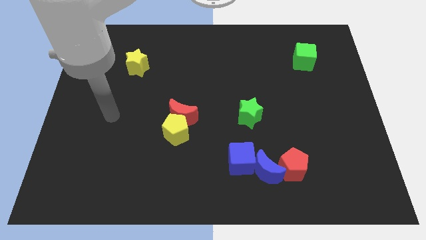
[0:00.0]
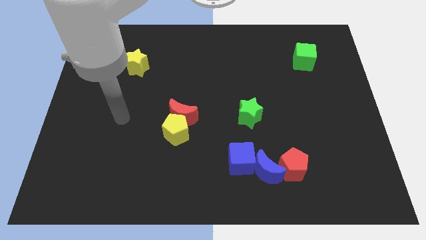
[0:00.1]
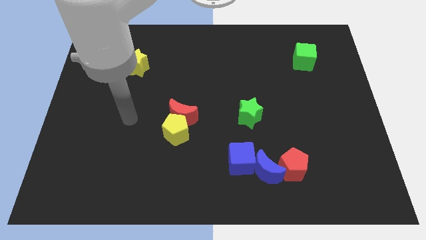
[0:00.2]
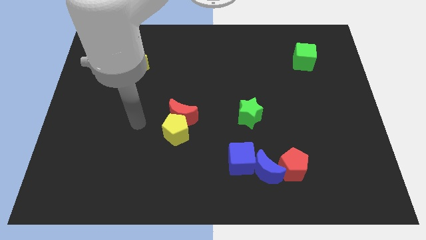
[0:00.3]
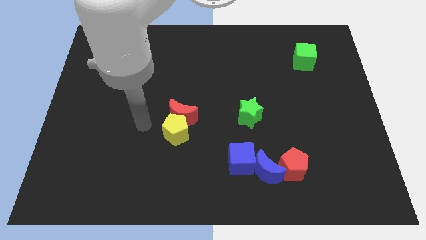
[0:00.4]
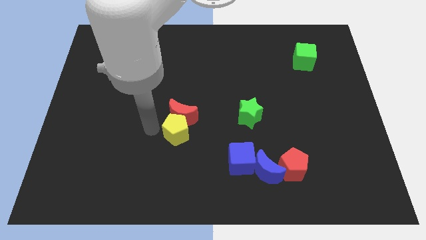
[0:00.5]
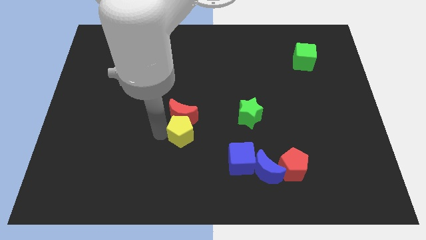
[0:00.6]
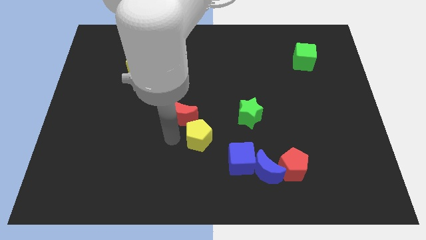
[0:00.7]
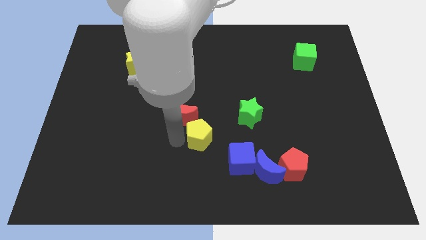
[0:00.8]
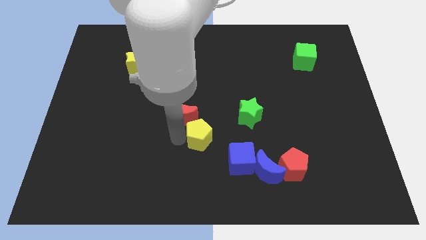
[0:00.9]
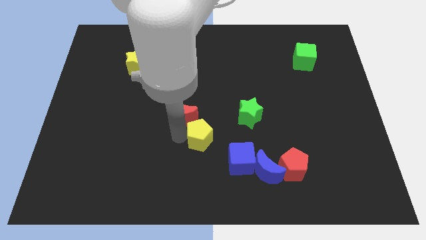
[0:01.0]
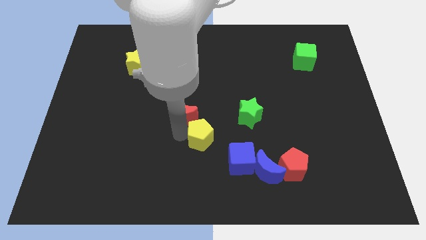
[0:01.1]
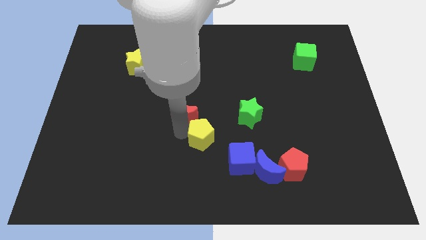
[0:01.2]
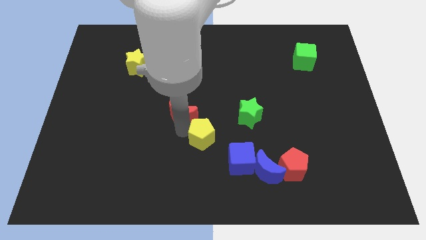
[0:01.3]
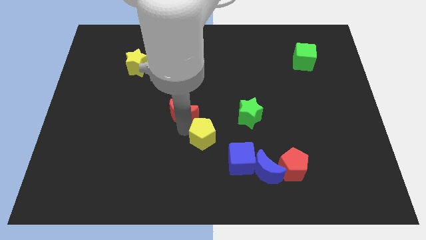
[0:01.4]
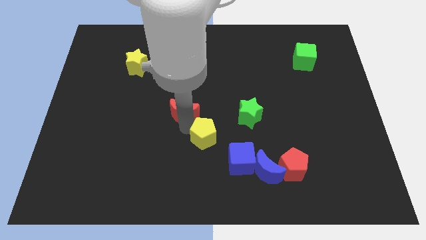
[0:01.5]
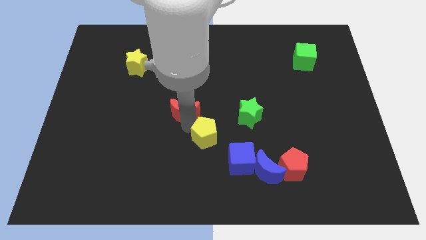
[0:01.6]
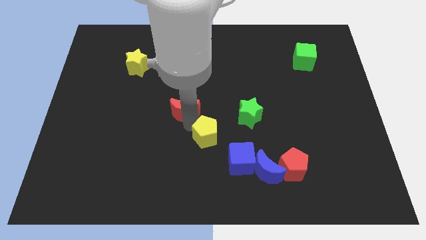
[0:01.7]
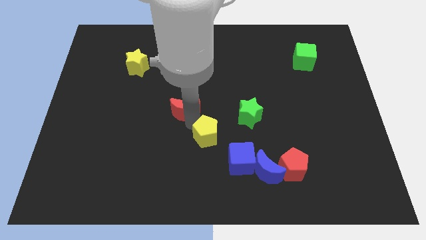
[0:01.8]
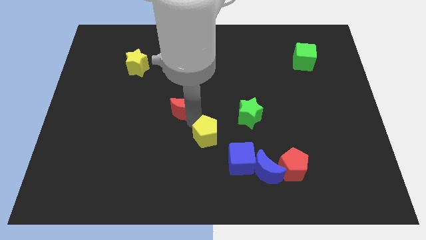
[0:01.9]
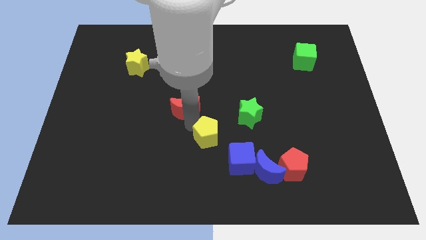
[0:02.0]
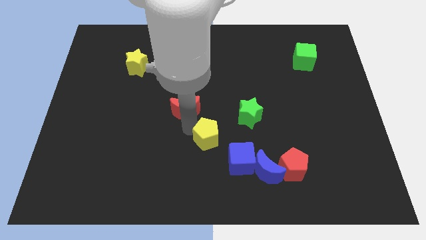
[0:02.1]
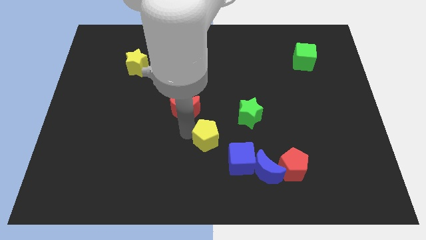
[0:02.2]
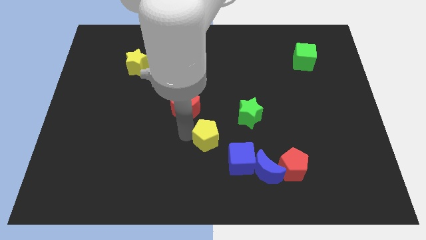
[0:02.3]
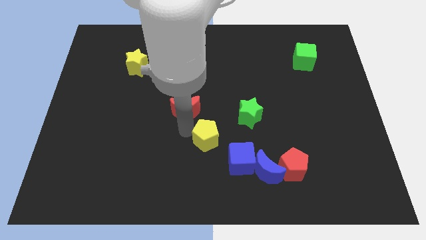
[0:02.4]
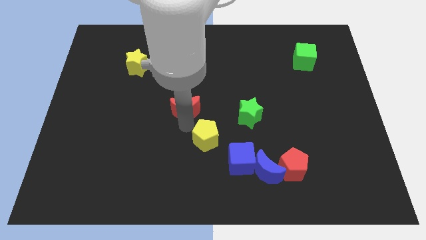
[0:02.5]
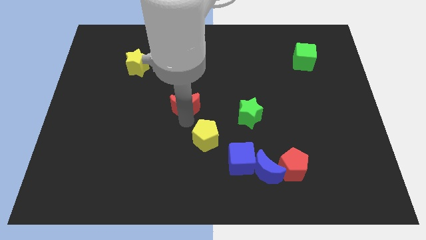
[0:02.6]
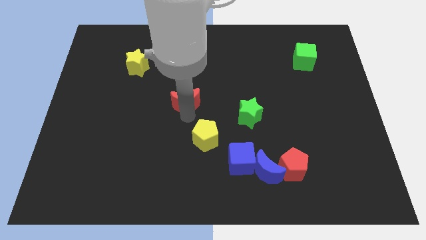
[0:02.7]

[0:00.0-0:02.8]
move the red moon away from the yellow pentagon

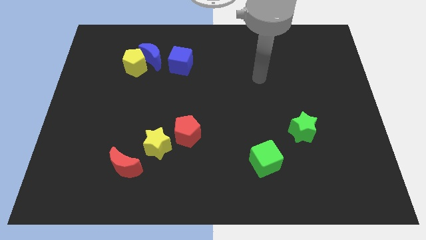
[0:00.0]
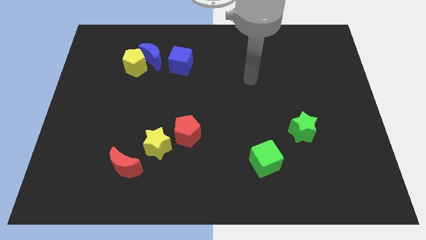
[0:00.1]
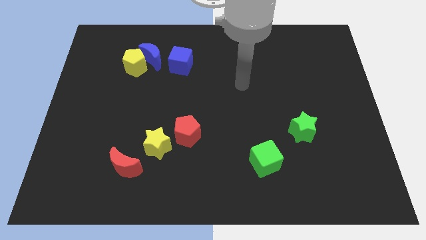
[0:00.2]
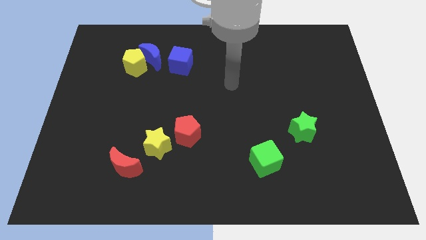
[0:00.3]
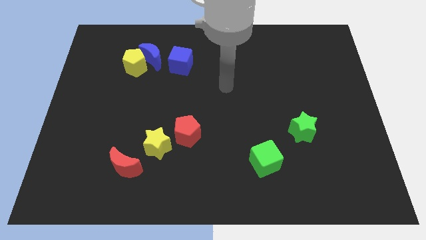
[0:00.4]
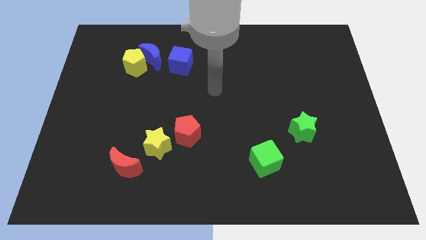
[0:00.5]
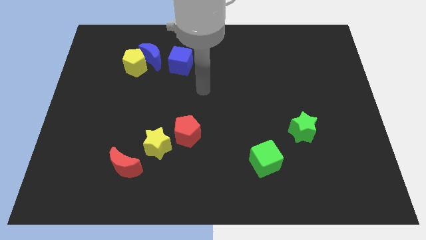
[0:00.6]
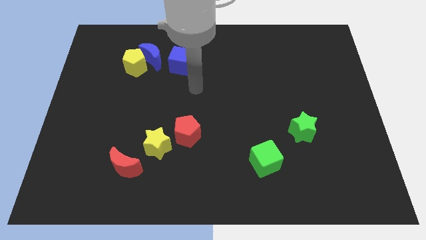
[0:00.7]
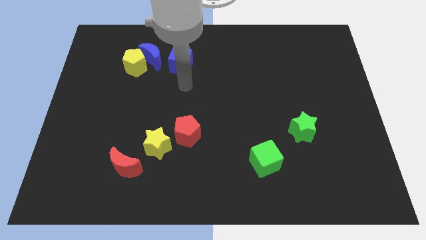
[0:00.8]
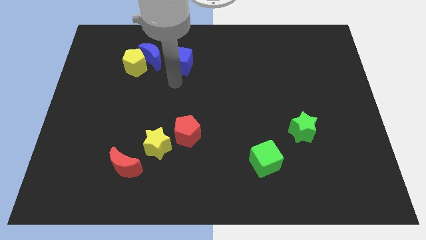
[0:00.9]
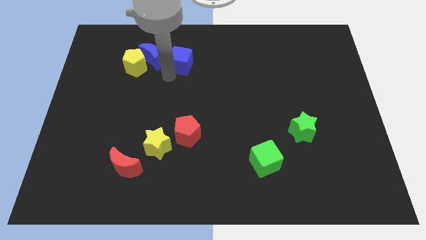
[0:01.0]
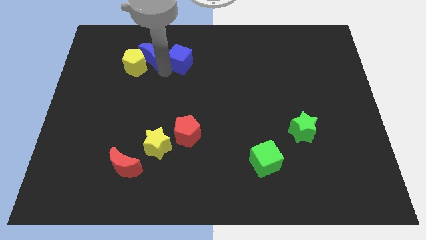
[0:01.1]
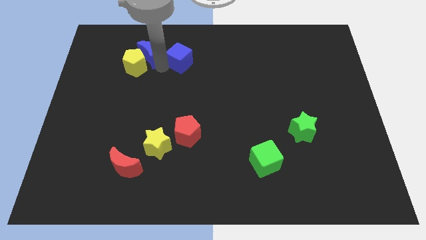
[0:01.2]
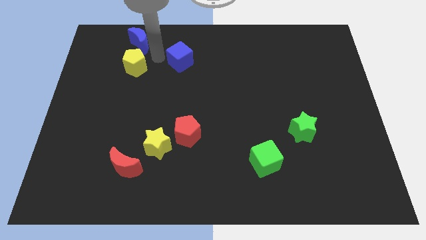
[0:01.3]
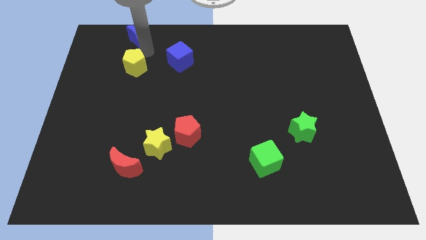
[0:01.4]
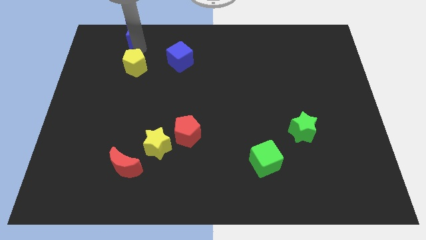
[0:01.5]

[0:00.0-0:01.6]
pull the yellow pentagon apart from the blue moon

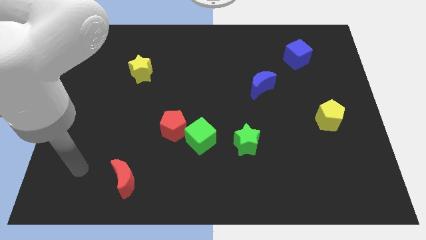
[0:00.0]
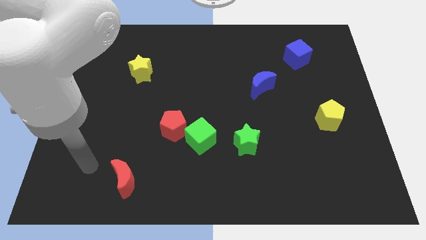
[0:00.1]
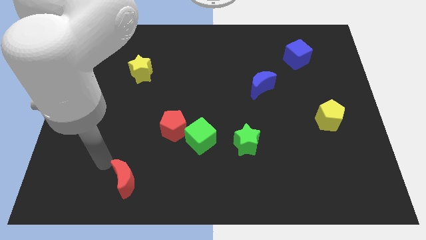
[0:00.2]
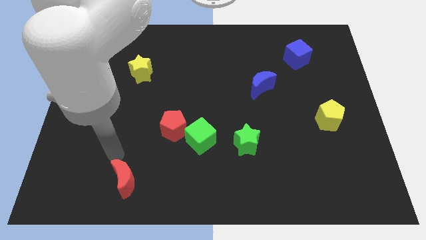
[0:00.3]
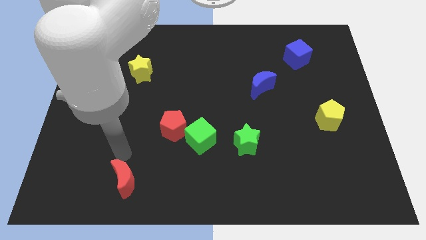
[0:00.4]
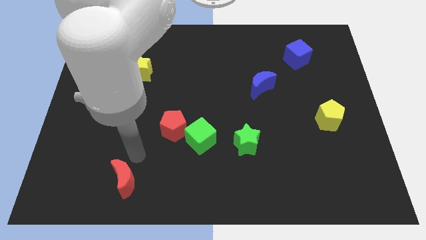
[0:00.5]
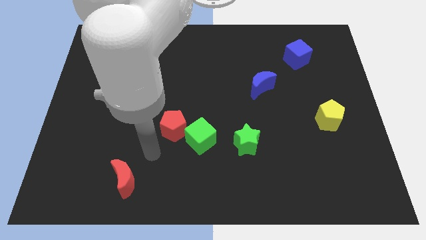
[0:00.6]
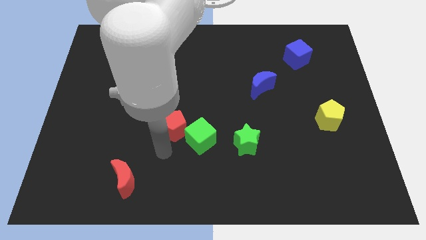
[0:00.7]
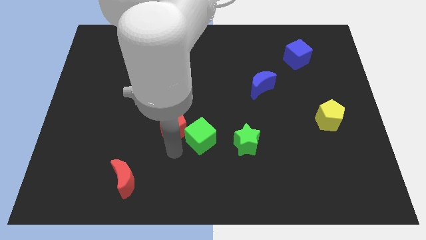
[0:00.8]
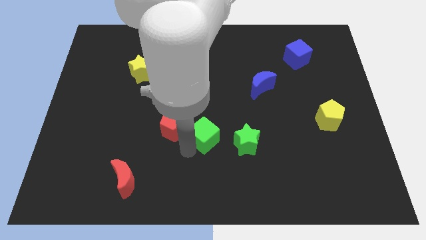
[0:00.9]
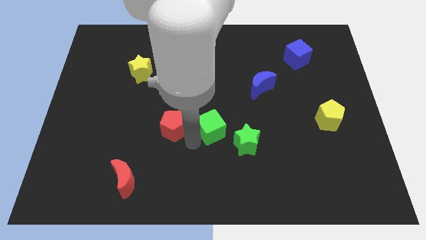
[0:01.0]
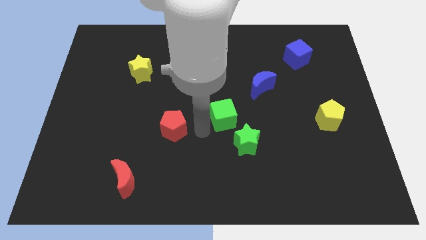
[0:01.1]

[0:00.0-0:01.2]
move the red pentagon away from the green cube

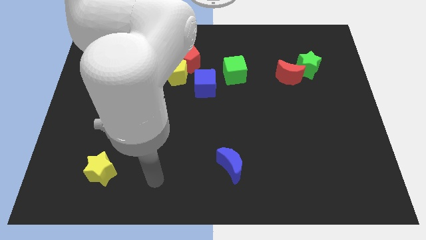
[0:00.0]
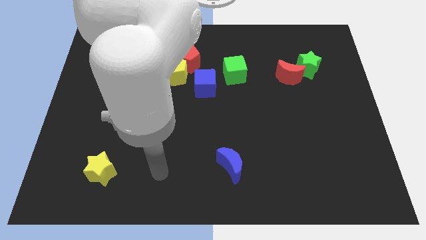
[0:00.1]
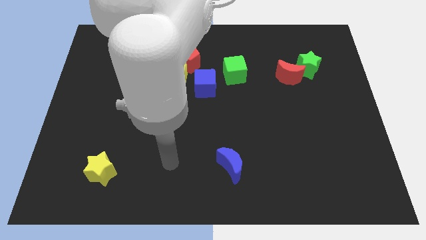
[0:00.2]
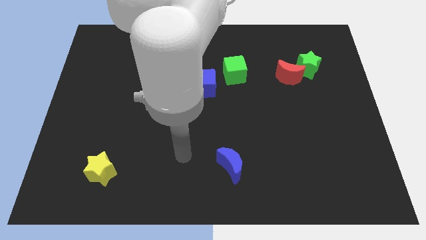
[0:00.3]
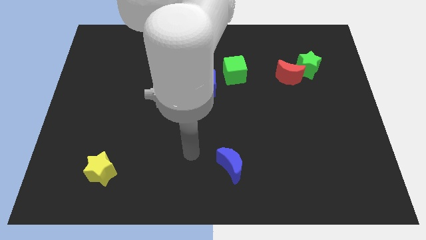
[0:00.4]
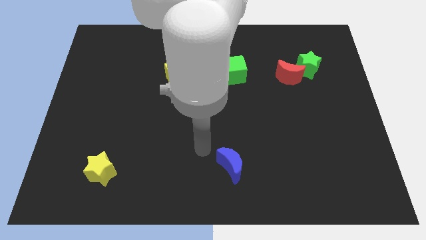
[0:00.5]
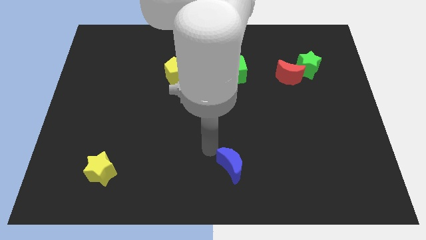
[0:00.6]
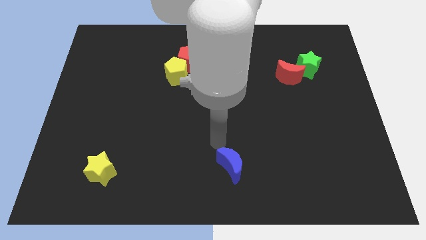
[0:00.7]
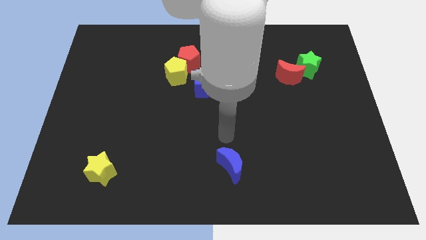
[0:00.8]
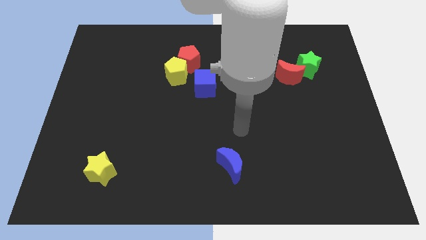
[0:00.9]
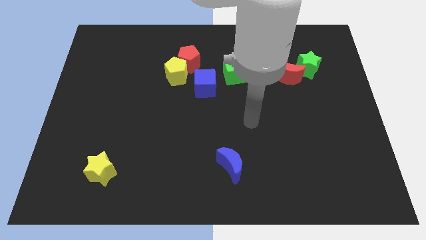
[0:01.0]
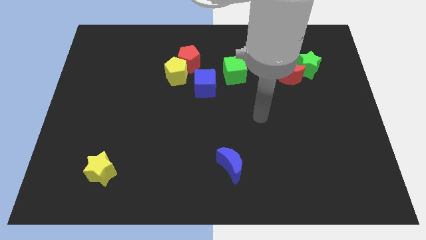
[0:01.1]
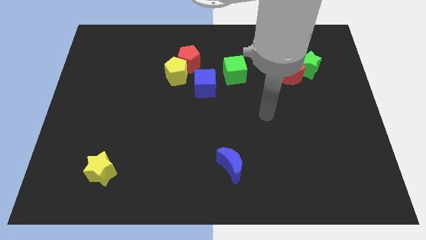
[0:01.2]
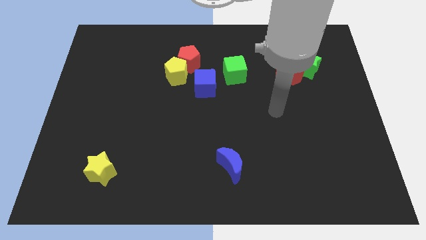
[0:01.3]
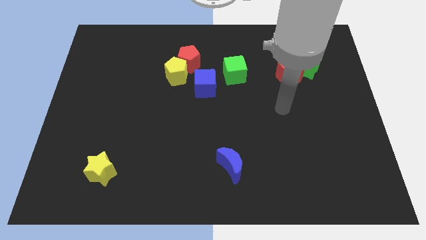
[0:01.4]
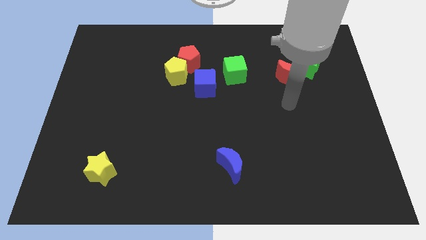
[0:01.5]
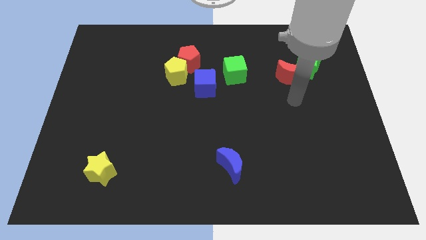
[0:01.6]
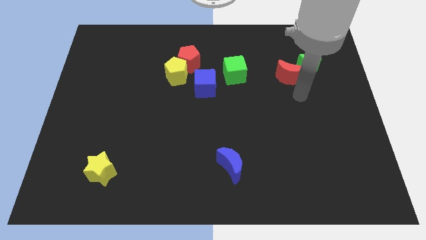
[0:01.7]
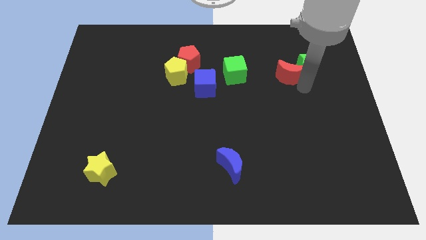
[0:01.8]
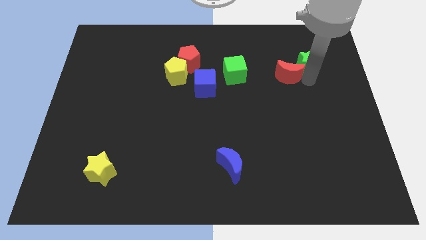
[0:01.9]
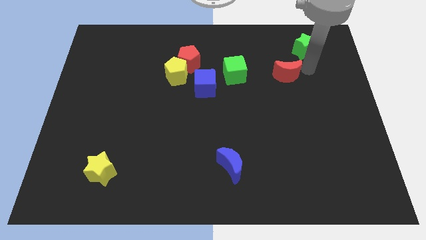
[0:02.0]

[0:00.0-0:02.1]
separate the red moon from the green star

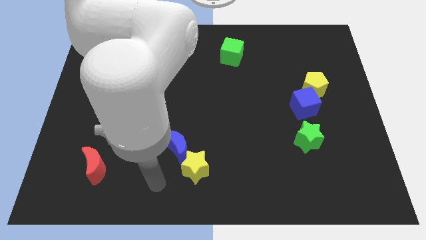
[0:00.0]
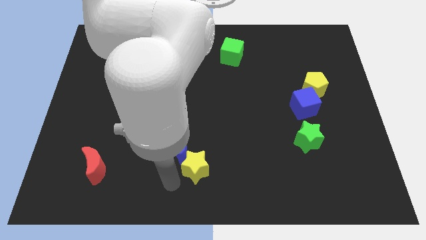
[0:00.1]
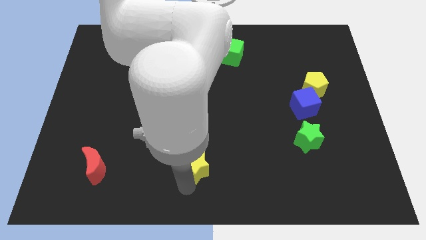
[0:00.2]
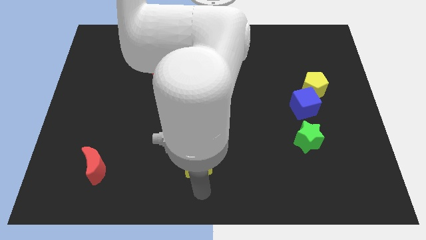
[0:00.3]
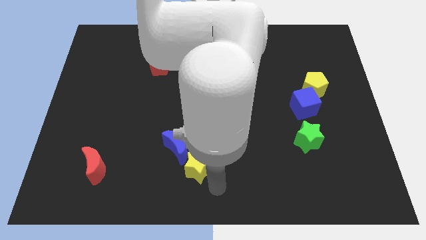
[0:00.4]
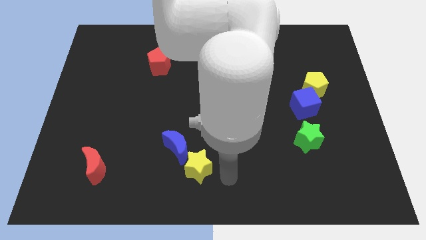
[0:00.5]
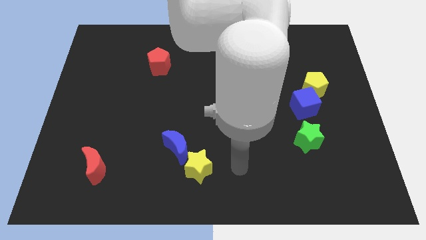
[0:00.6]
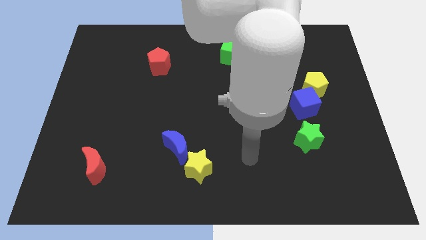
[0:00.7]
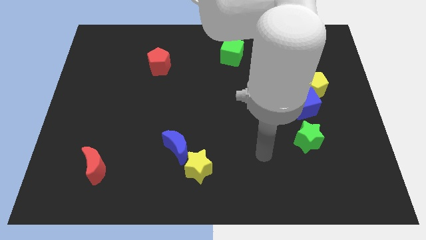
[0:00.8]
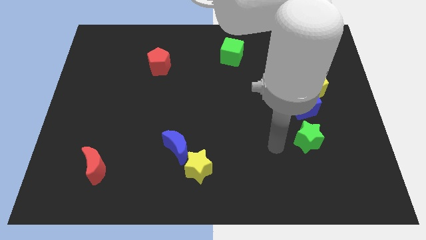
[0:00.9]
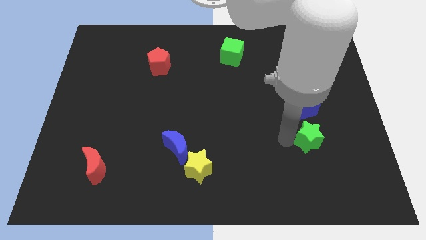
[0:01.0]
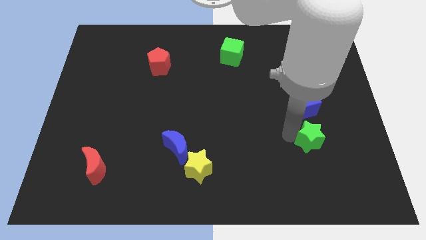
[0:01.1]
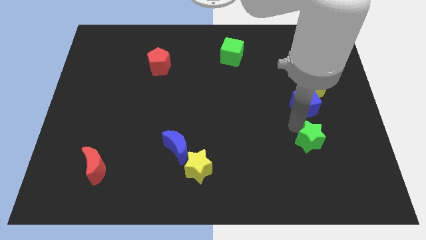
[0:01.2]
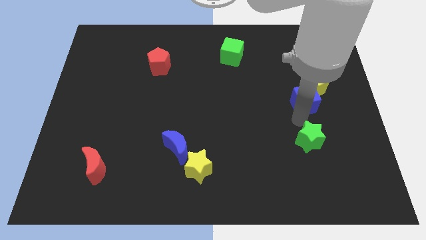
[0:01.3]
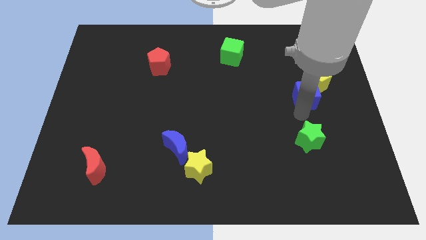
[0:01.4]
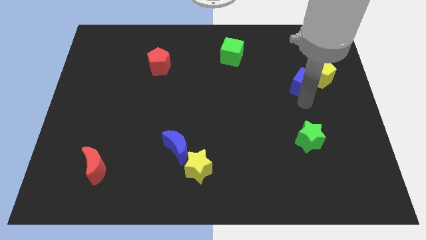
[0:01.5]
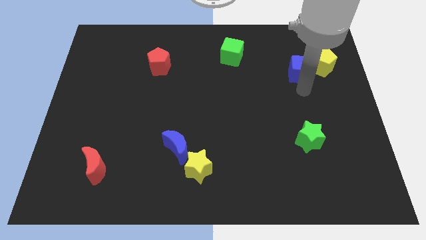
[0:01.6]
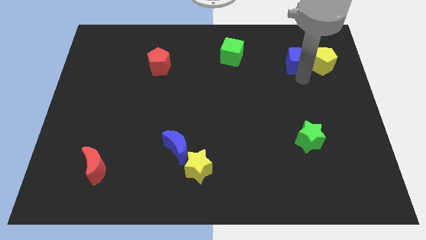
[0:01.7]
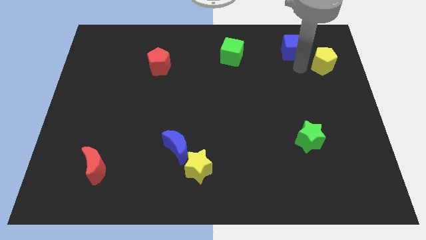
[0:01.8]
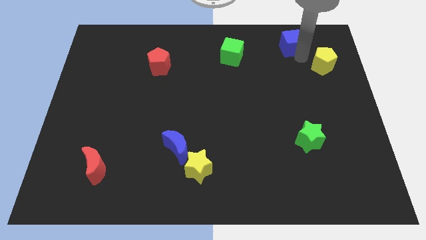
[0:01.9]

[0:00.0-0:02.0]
pull the yellow pentagon apart from the blue cube
